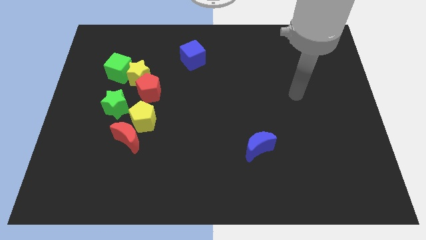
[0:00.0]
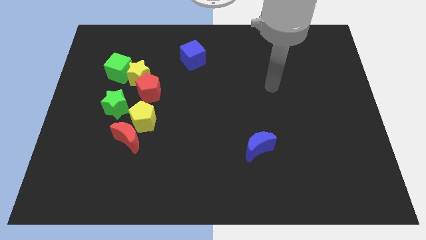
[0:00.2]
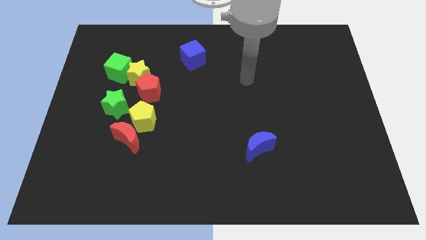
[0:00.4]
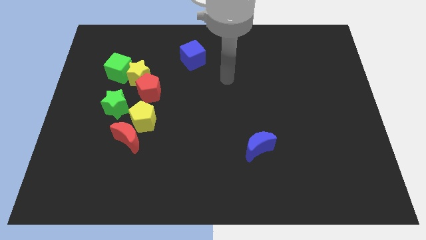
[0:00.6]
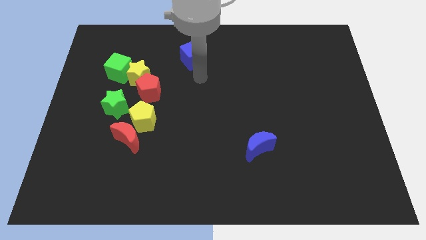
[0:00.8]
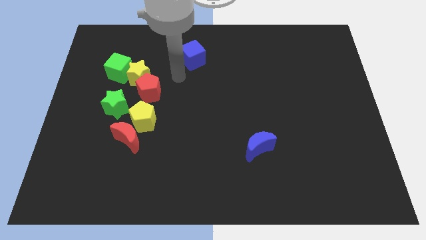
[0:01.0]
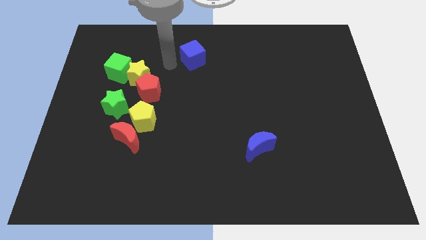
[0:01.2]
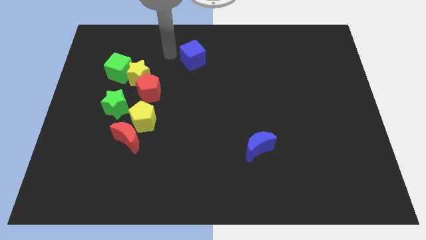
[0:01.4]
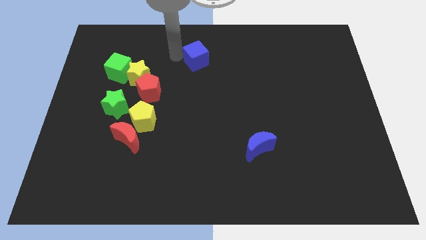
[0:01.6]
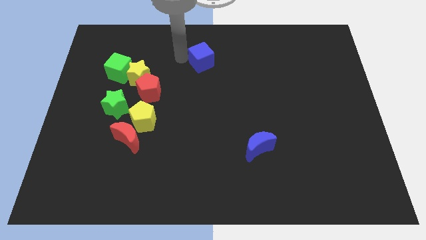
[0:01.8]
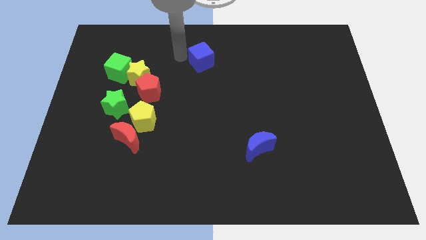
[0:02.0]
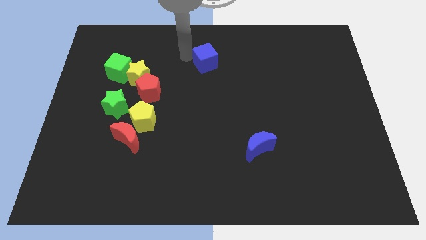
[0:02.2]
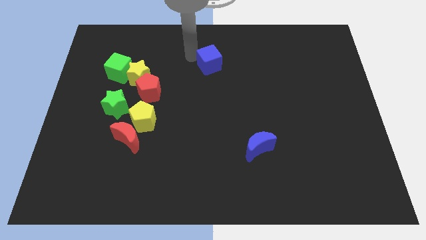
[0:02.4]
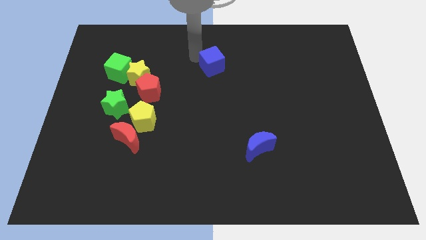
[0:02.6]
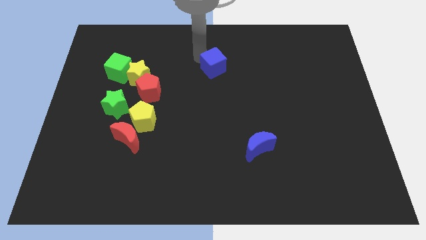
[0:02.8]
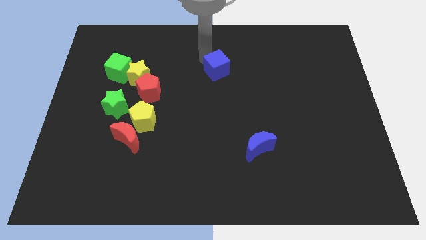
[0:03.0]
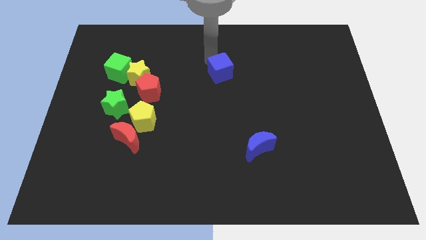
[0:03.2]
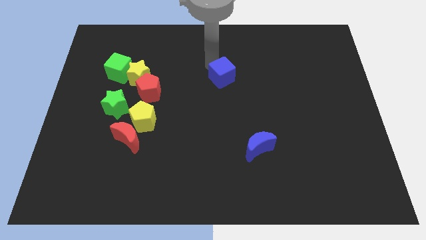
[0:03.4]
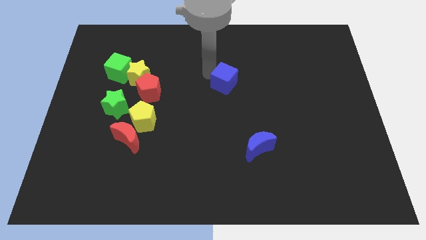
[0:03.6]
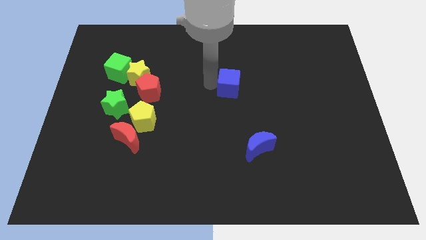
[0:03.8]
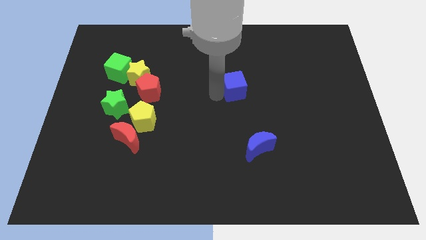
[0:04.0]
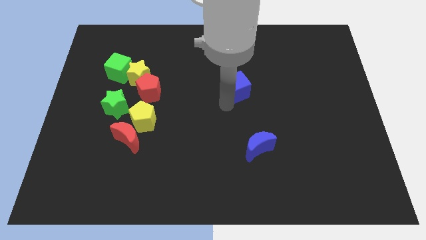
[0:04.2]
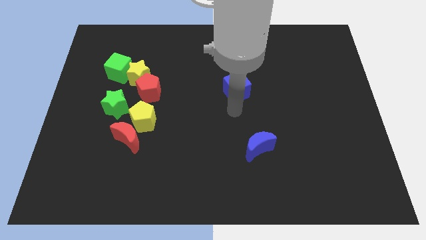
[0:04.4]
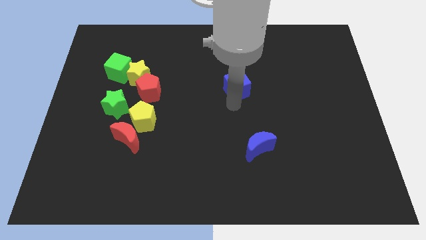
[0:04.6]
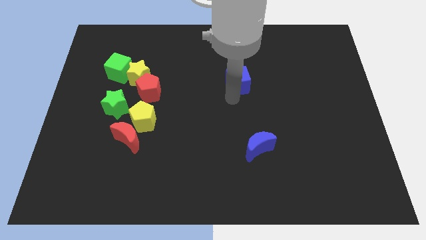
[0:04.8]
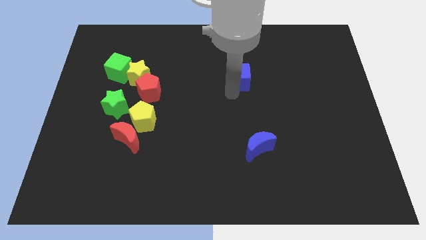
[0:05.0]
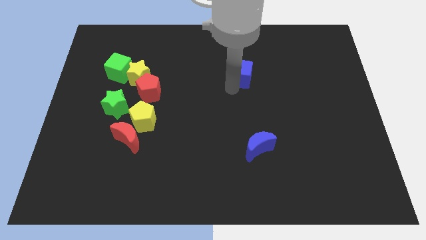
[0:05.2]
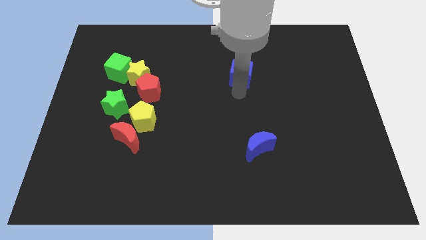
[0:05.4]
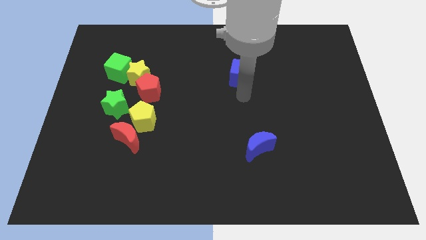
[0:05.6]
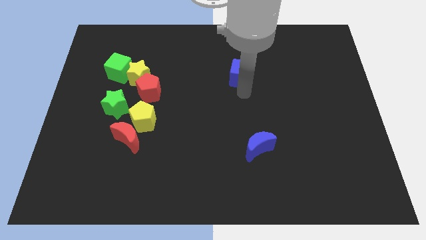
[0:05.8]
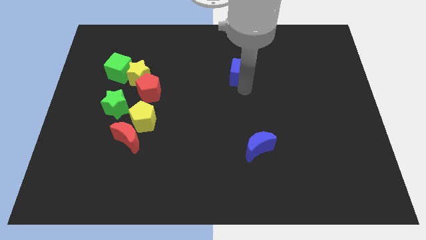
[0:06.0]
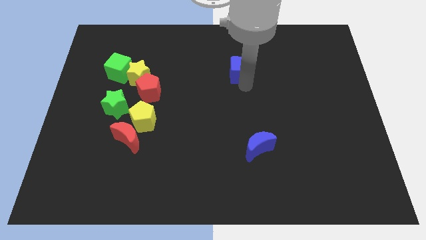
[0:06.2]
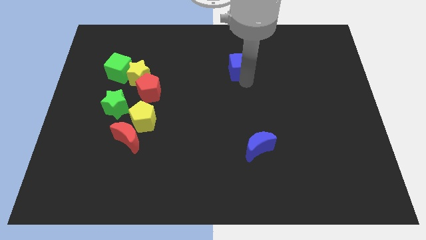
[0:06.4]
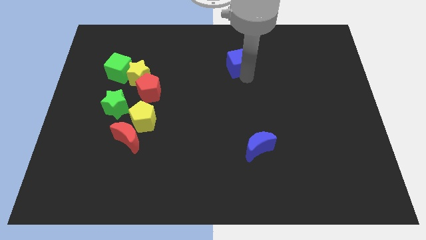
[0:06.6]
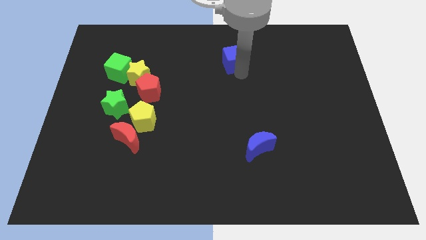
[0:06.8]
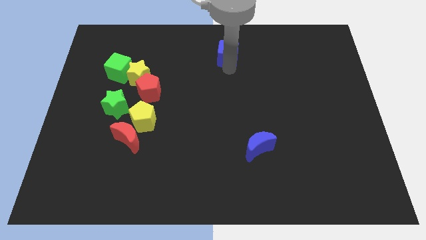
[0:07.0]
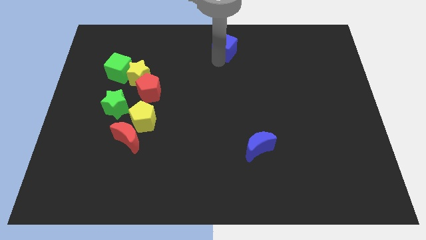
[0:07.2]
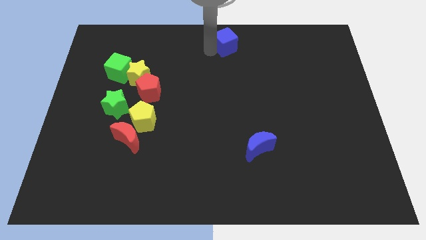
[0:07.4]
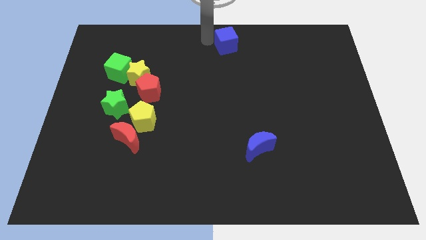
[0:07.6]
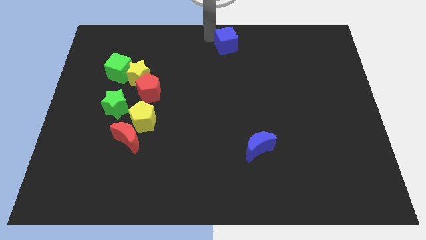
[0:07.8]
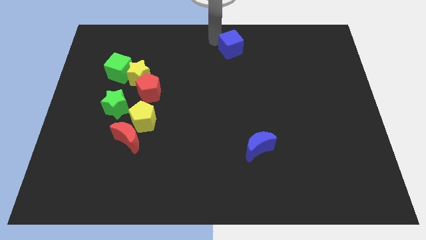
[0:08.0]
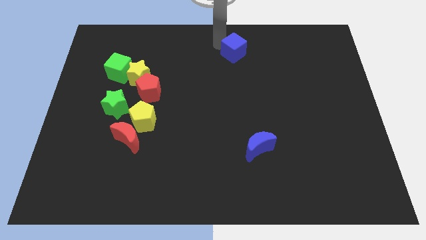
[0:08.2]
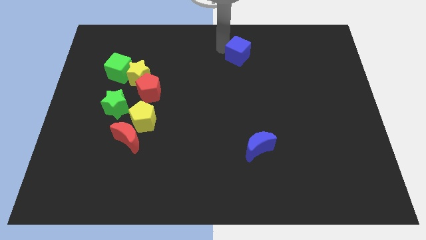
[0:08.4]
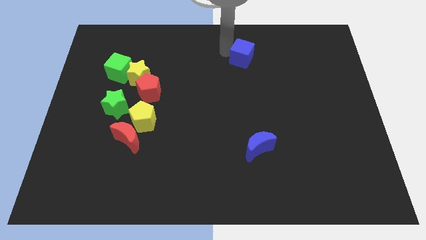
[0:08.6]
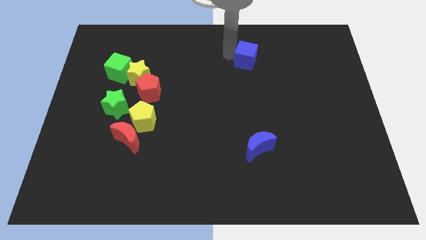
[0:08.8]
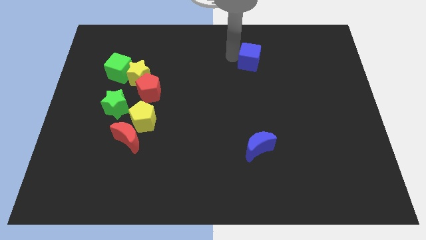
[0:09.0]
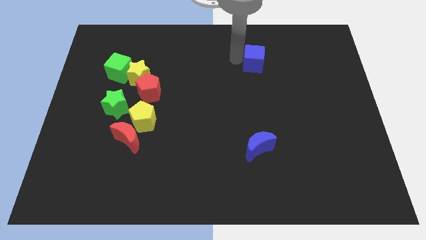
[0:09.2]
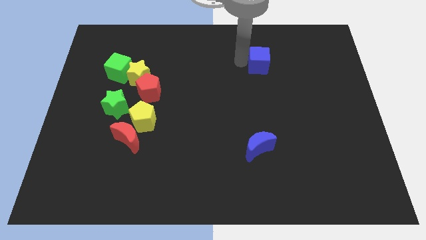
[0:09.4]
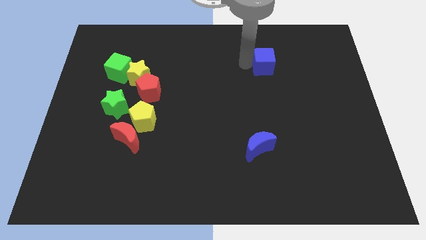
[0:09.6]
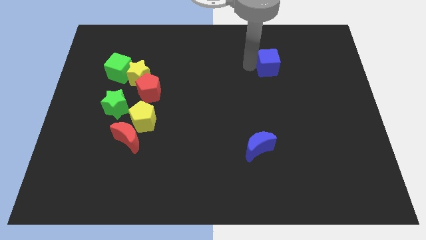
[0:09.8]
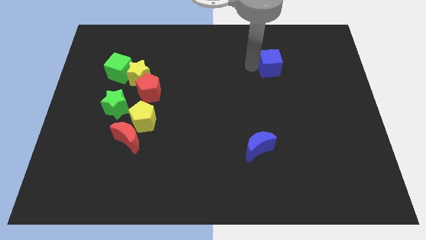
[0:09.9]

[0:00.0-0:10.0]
move the blue cube right

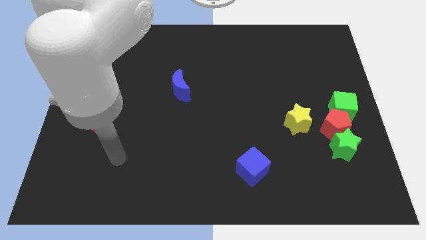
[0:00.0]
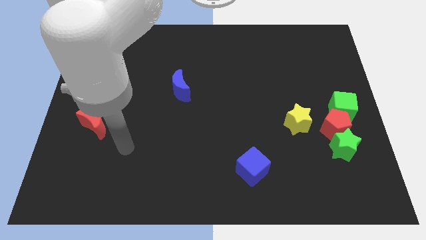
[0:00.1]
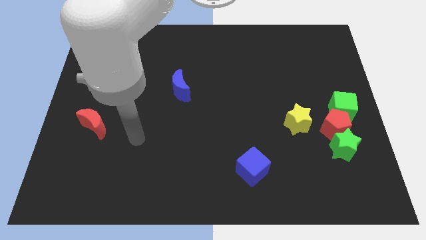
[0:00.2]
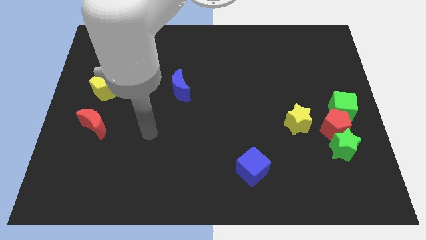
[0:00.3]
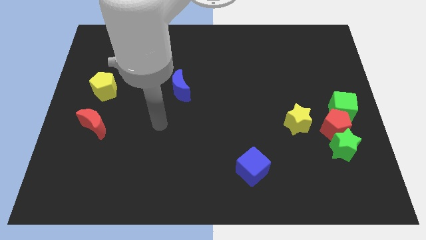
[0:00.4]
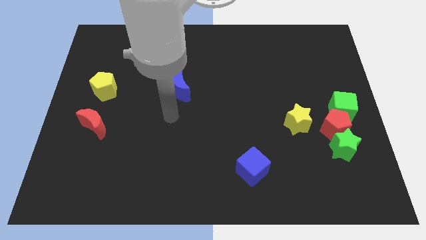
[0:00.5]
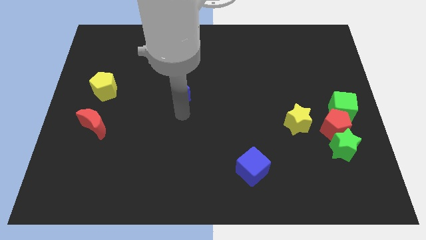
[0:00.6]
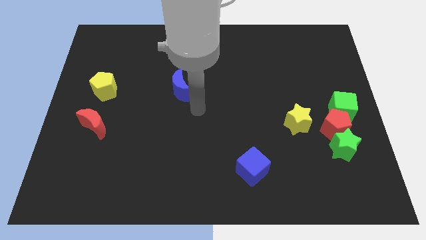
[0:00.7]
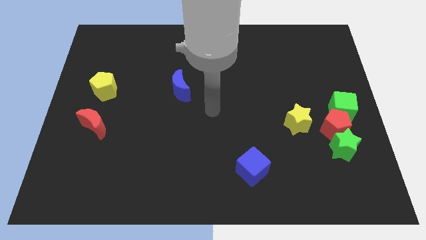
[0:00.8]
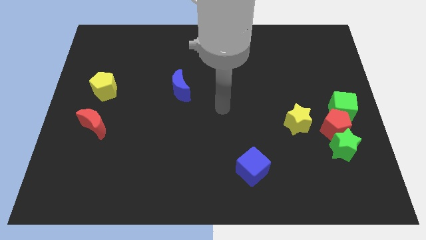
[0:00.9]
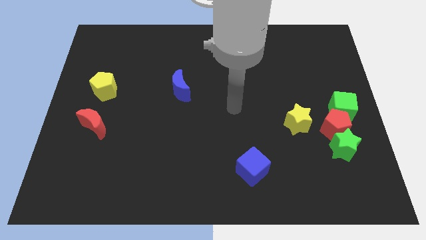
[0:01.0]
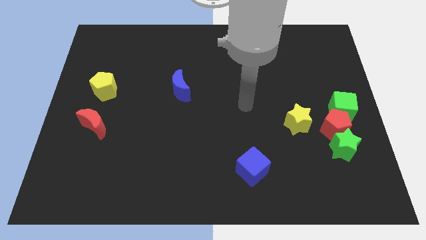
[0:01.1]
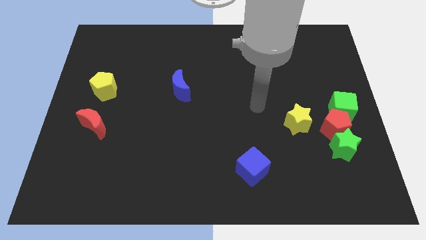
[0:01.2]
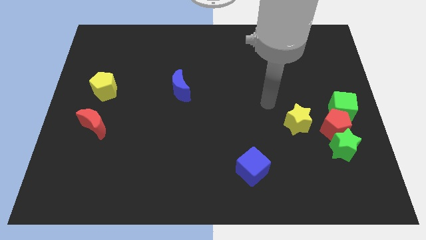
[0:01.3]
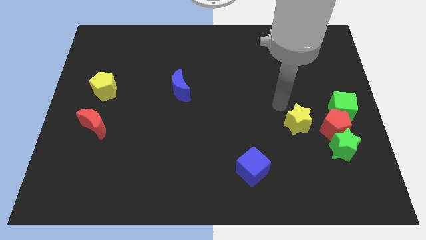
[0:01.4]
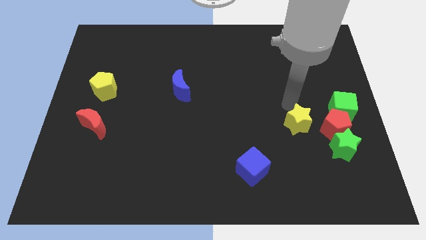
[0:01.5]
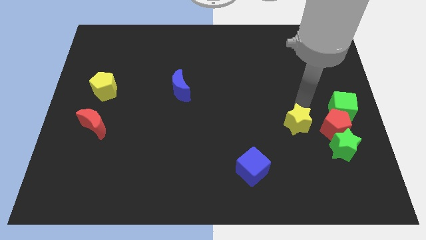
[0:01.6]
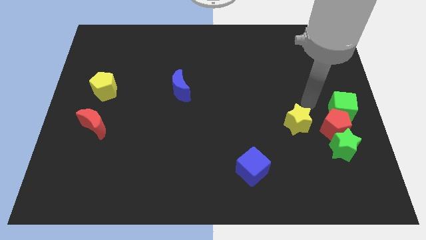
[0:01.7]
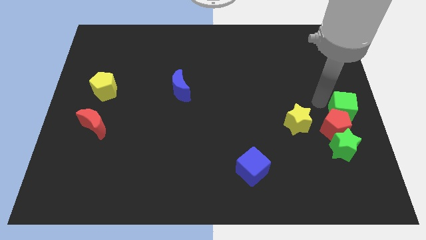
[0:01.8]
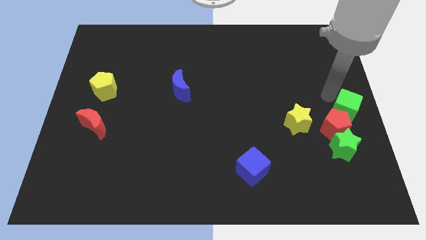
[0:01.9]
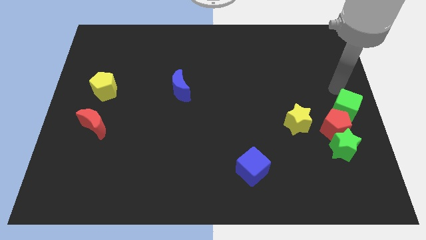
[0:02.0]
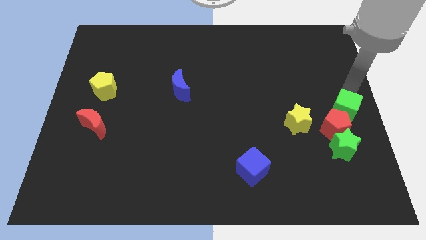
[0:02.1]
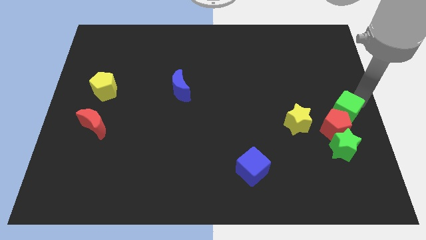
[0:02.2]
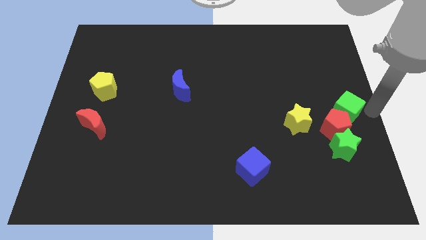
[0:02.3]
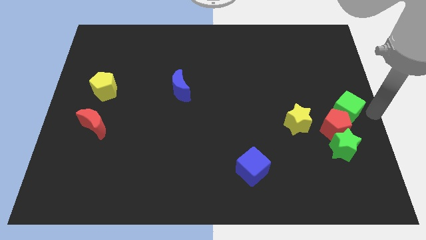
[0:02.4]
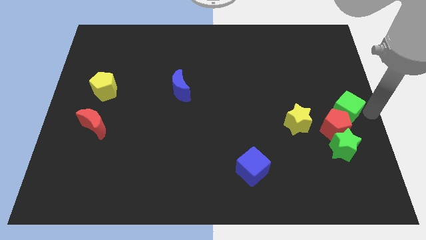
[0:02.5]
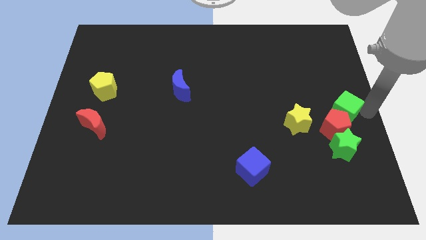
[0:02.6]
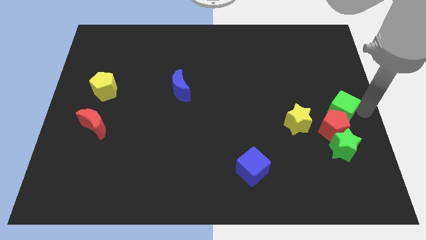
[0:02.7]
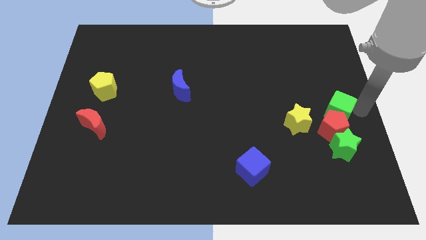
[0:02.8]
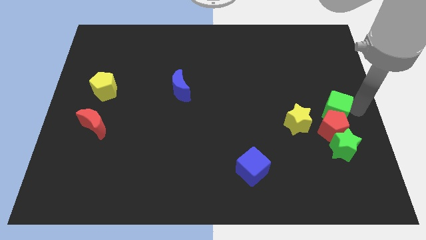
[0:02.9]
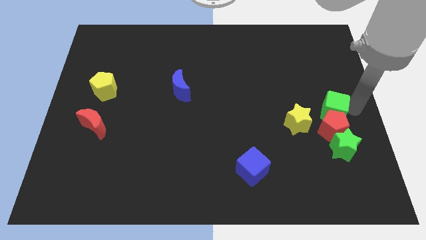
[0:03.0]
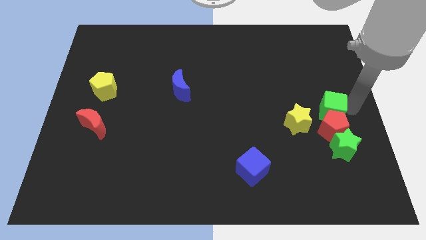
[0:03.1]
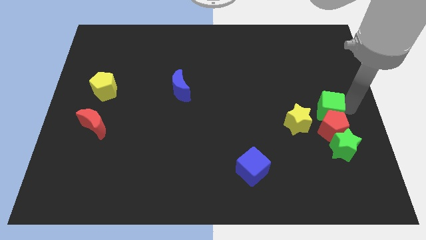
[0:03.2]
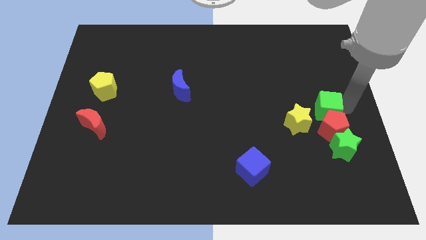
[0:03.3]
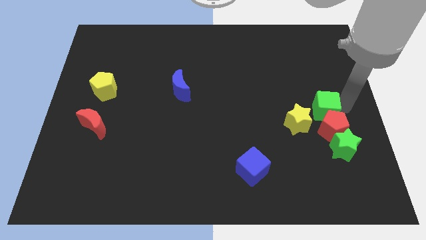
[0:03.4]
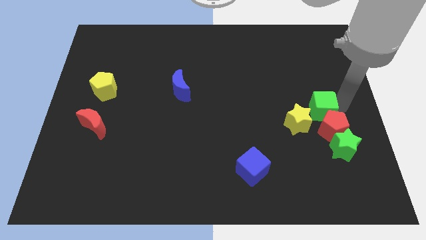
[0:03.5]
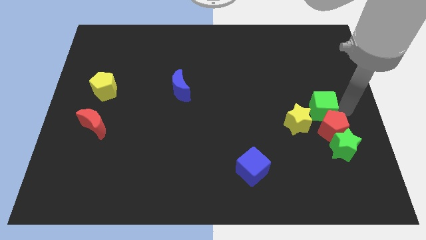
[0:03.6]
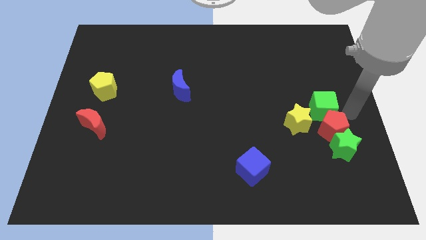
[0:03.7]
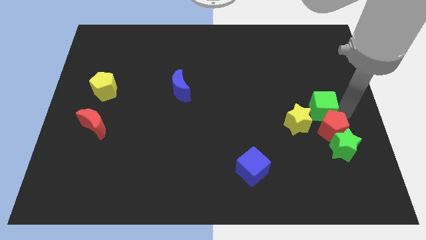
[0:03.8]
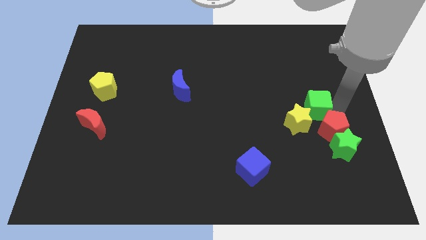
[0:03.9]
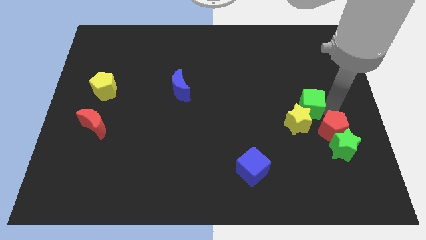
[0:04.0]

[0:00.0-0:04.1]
slide the green cube slightly to the left
